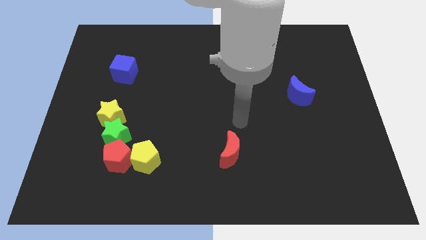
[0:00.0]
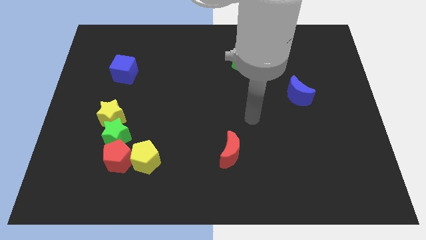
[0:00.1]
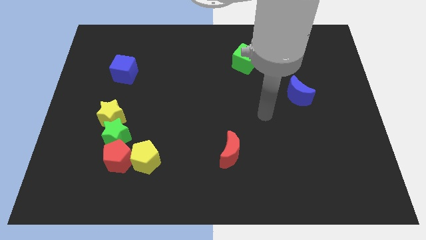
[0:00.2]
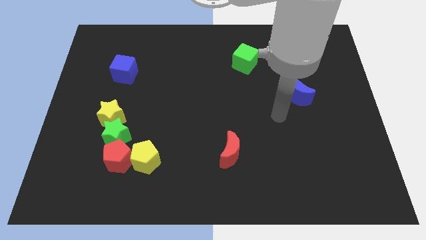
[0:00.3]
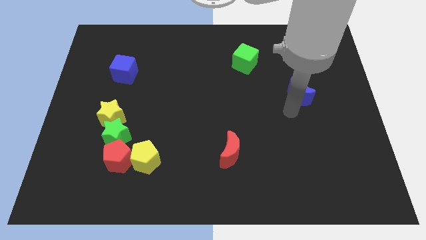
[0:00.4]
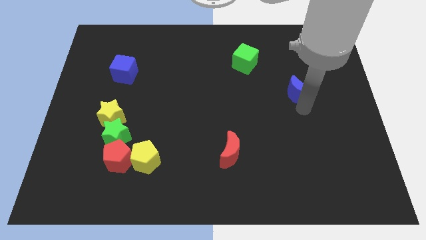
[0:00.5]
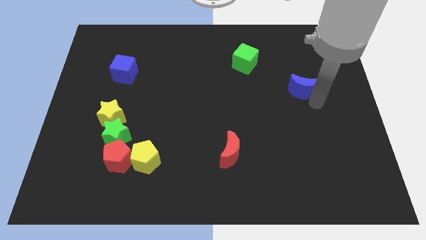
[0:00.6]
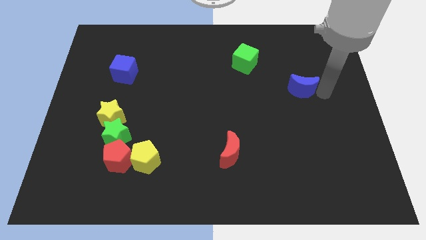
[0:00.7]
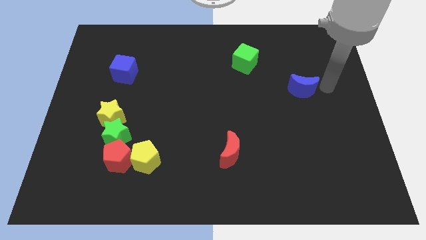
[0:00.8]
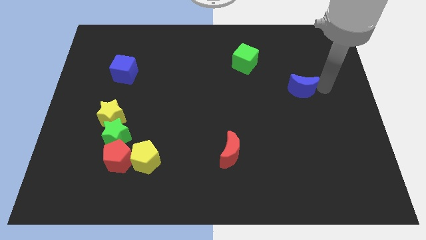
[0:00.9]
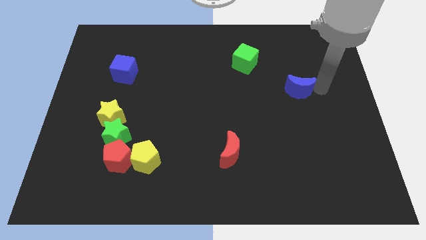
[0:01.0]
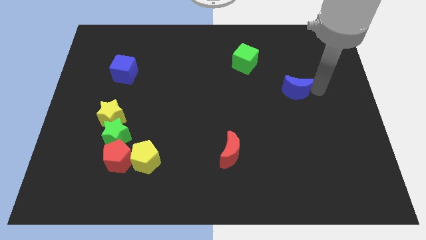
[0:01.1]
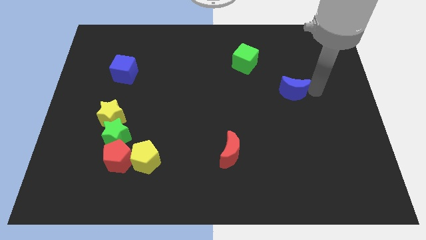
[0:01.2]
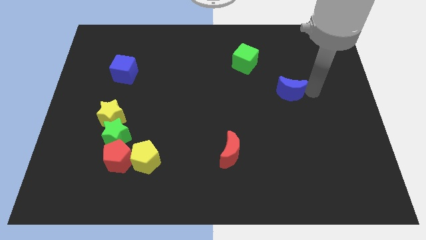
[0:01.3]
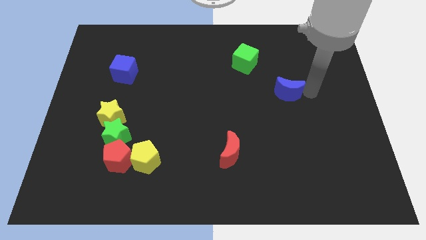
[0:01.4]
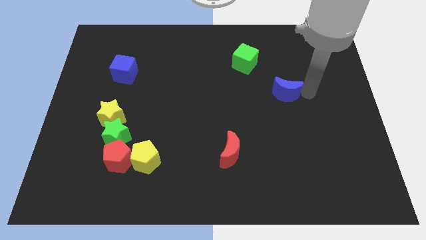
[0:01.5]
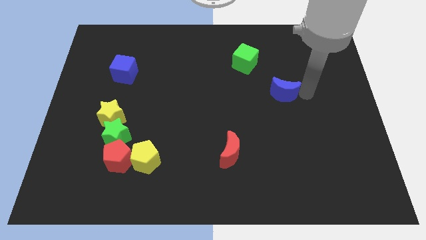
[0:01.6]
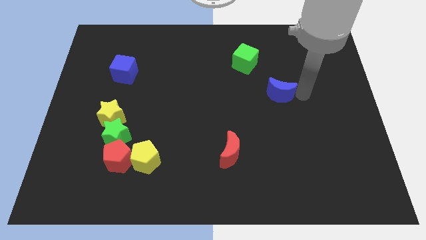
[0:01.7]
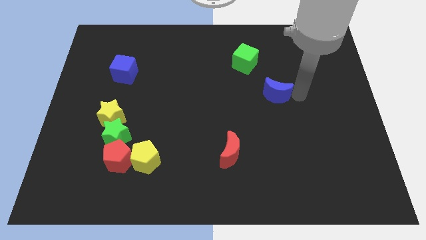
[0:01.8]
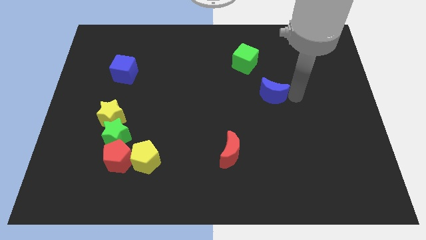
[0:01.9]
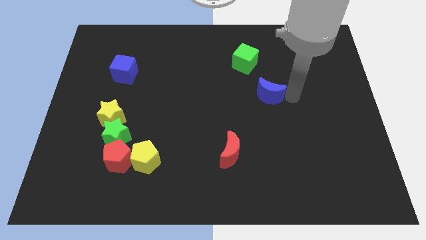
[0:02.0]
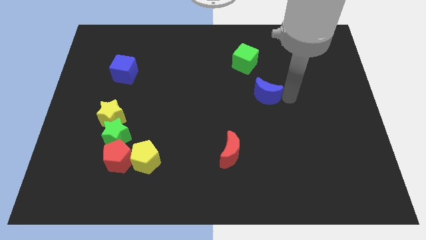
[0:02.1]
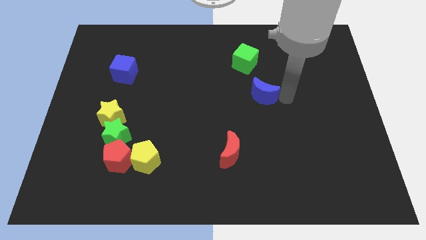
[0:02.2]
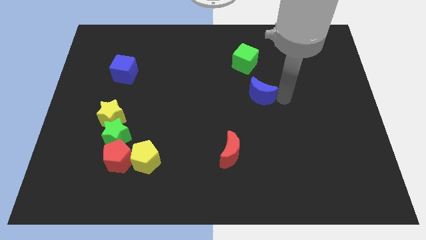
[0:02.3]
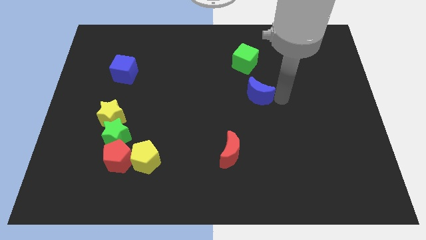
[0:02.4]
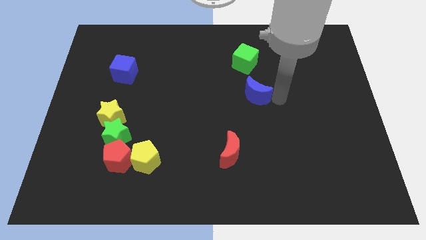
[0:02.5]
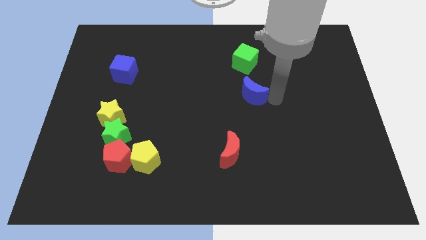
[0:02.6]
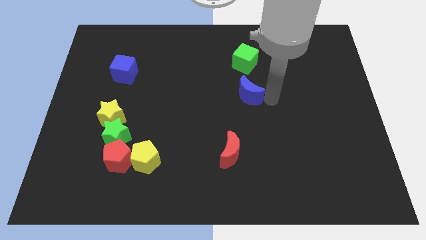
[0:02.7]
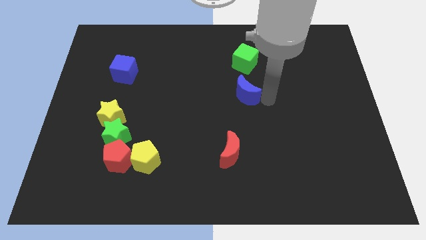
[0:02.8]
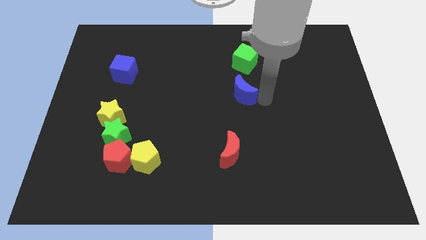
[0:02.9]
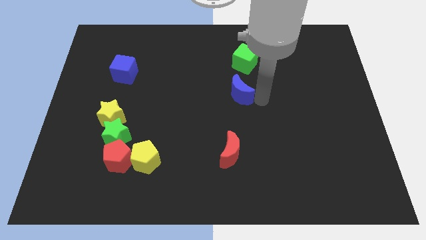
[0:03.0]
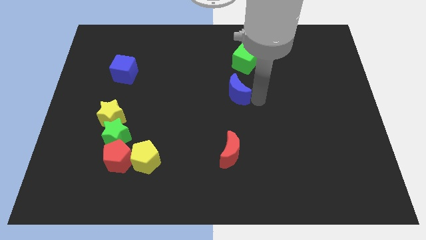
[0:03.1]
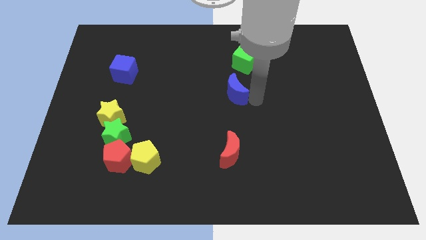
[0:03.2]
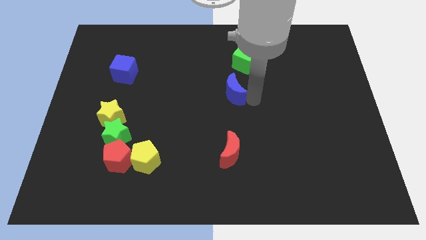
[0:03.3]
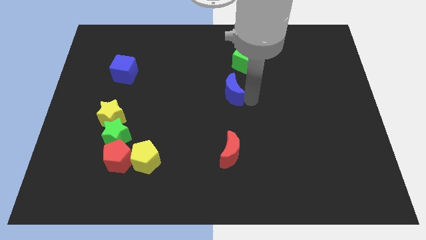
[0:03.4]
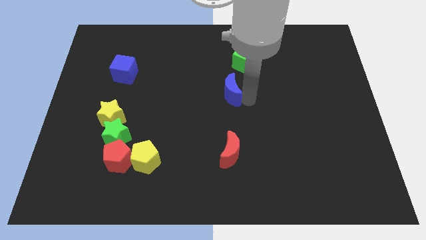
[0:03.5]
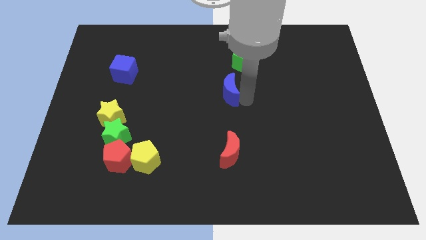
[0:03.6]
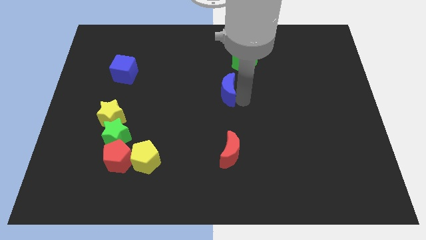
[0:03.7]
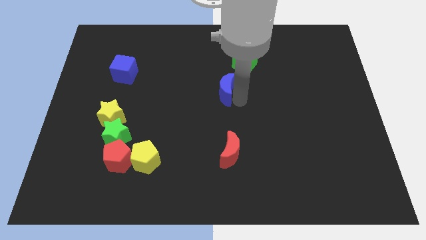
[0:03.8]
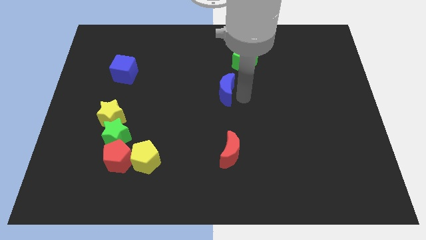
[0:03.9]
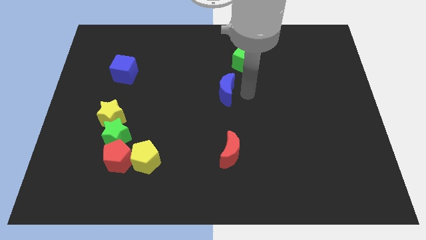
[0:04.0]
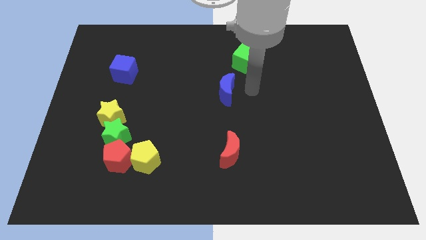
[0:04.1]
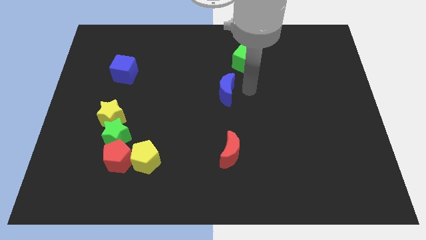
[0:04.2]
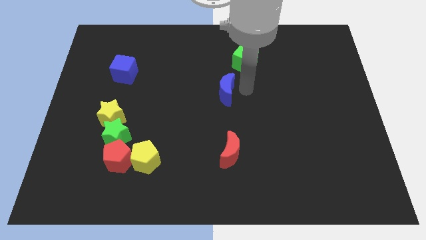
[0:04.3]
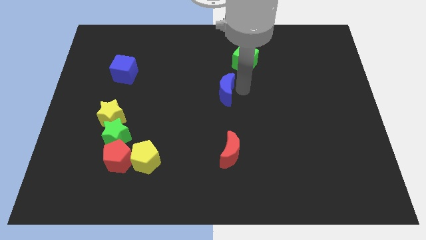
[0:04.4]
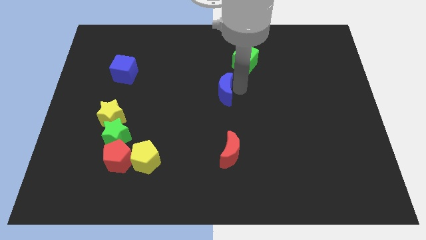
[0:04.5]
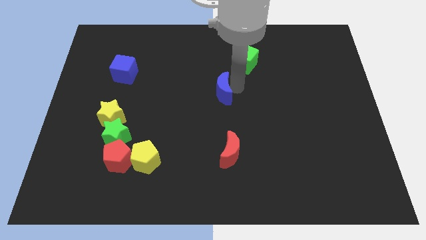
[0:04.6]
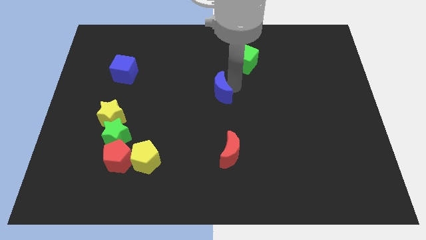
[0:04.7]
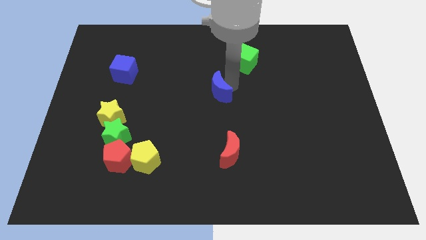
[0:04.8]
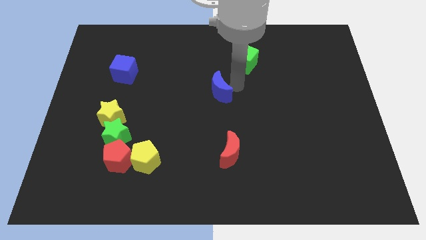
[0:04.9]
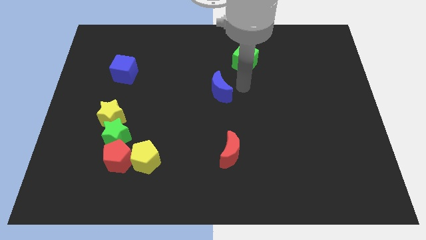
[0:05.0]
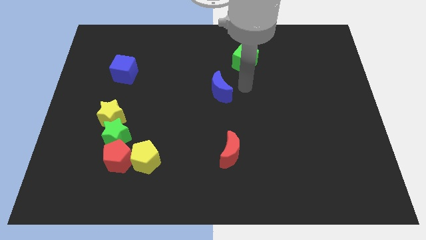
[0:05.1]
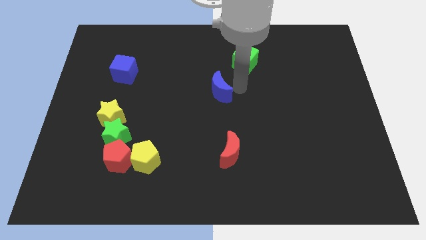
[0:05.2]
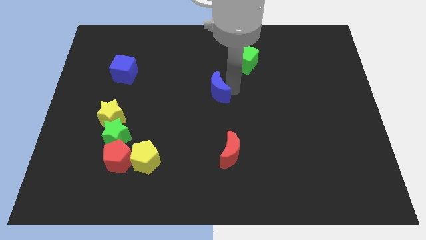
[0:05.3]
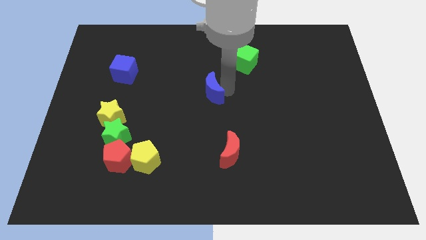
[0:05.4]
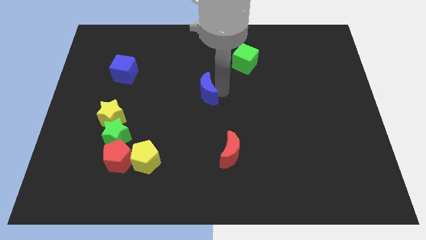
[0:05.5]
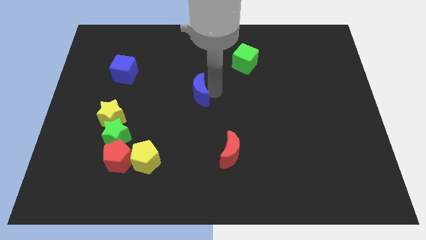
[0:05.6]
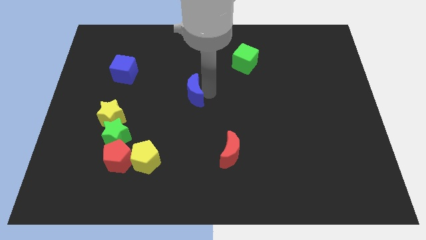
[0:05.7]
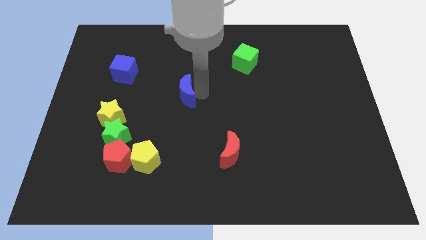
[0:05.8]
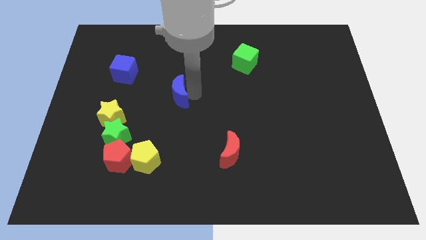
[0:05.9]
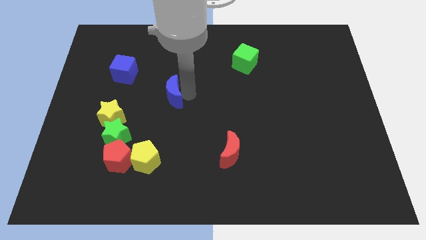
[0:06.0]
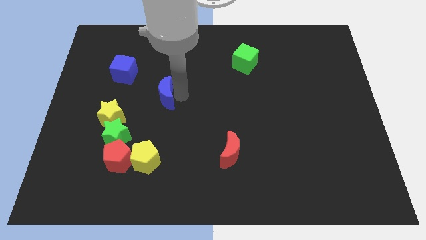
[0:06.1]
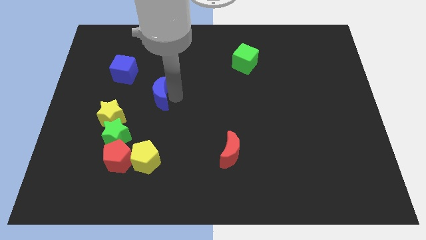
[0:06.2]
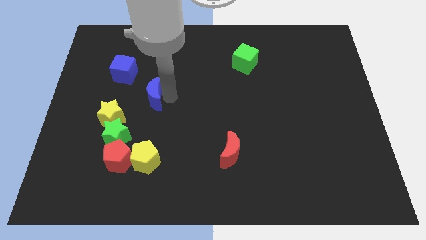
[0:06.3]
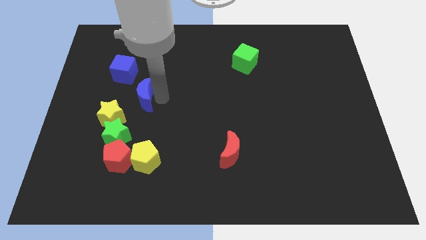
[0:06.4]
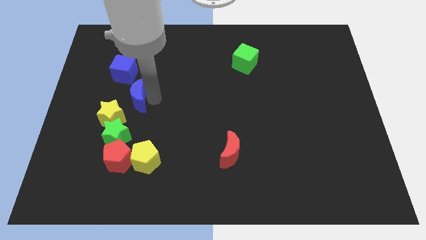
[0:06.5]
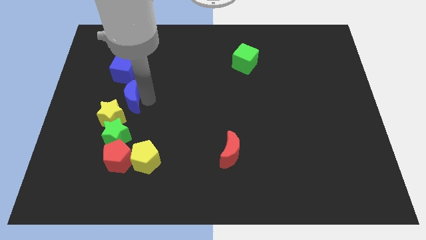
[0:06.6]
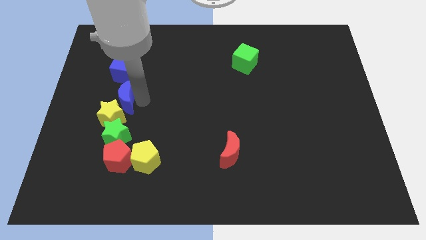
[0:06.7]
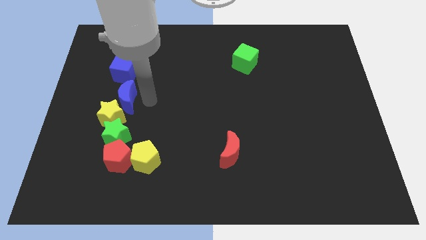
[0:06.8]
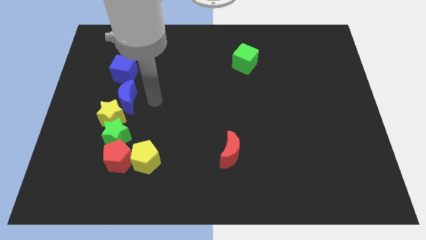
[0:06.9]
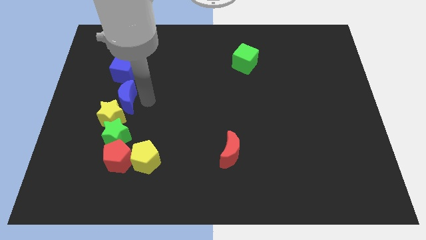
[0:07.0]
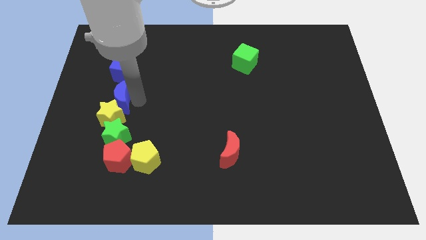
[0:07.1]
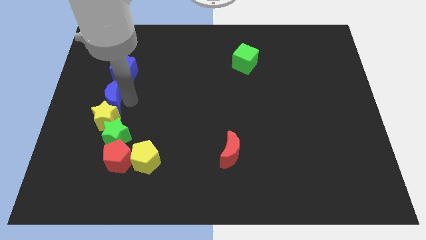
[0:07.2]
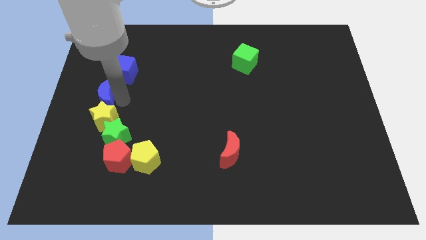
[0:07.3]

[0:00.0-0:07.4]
move the blue moon to the center left
